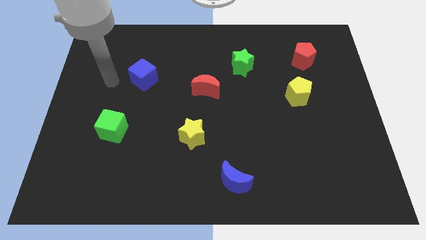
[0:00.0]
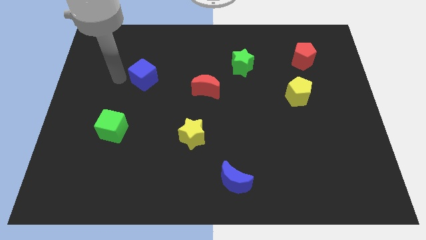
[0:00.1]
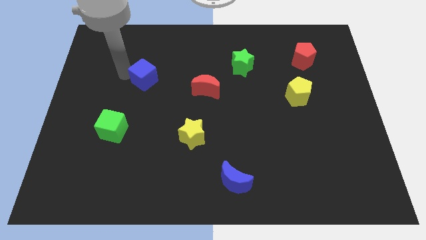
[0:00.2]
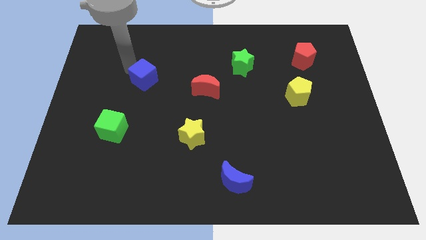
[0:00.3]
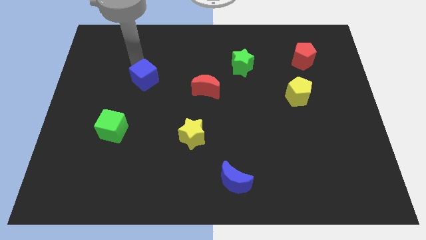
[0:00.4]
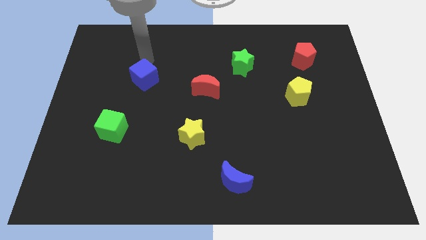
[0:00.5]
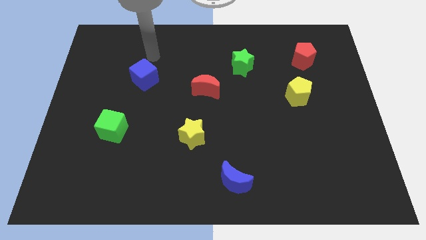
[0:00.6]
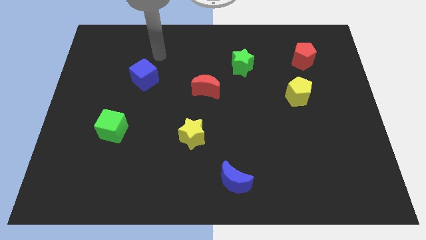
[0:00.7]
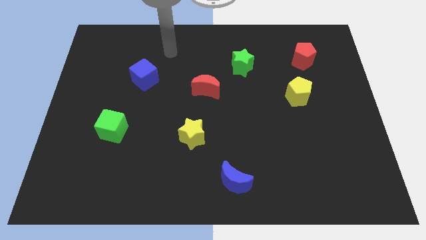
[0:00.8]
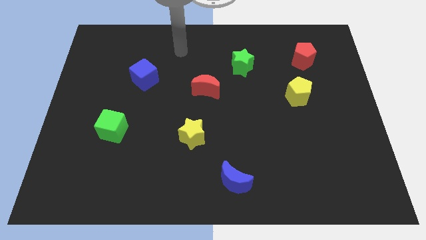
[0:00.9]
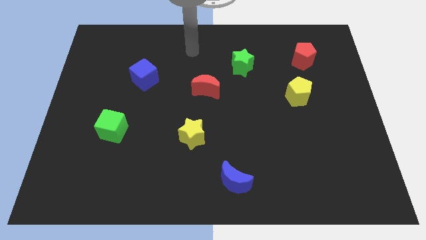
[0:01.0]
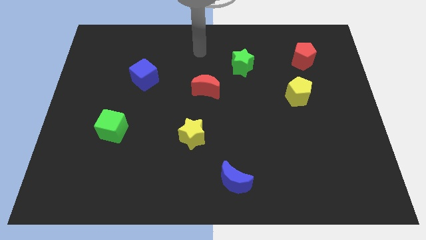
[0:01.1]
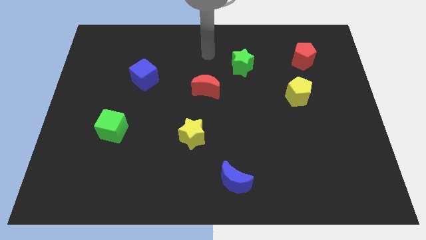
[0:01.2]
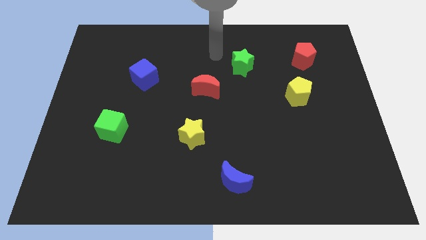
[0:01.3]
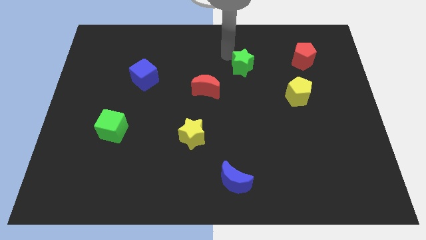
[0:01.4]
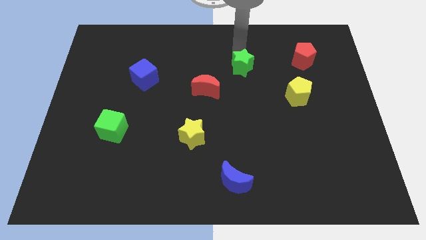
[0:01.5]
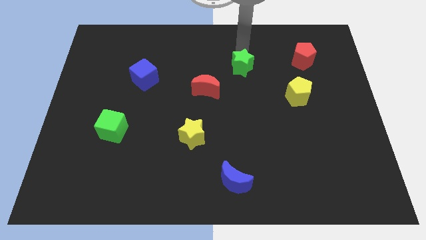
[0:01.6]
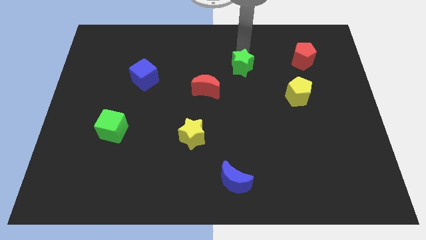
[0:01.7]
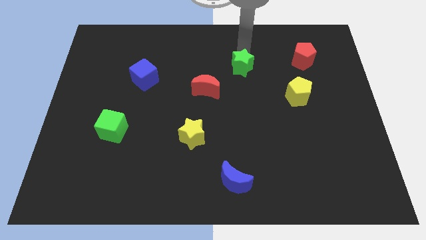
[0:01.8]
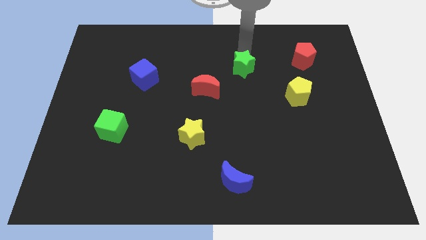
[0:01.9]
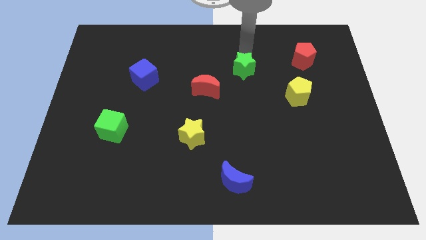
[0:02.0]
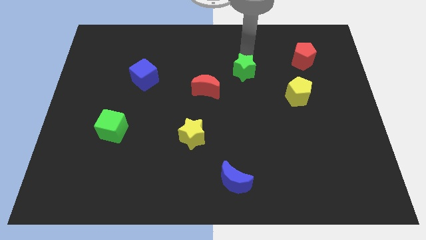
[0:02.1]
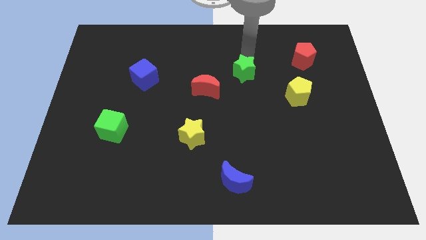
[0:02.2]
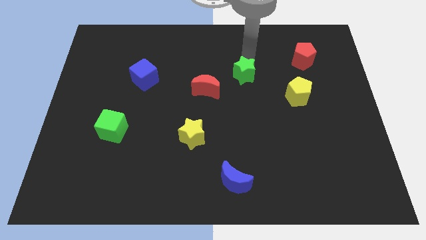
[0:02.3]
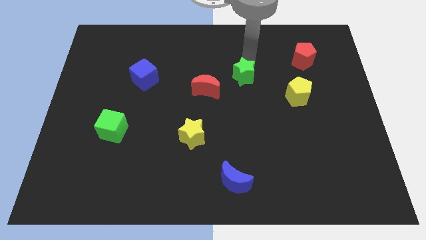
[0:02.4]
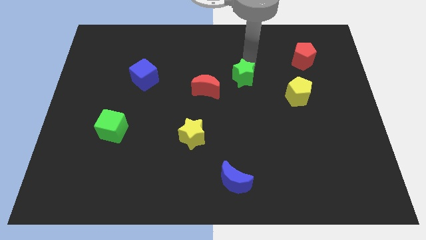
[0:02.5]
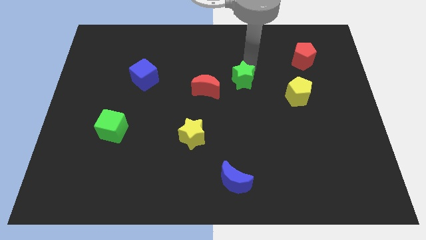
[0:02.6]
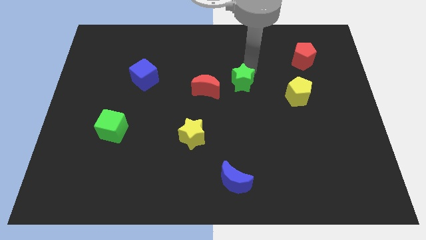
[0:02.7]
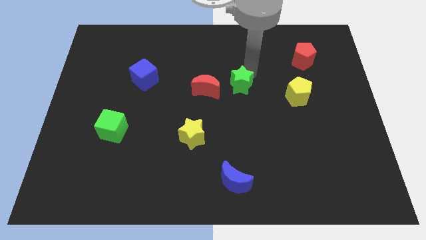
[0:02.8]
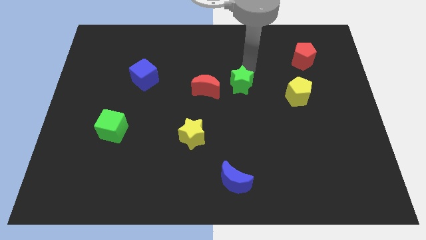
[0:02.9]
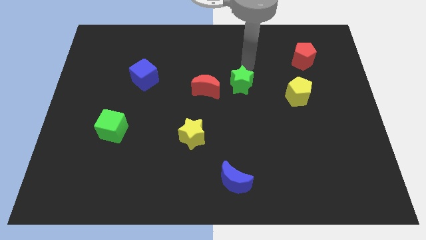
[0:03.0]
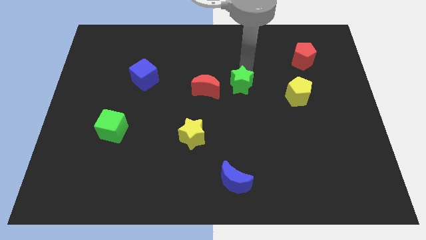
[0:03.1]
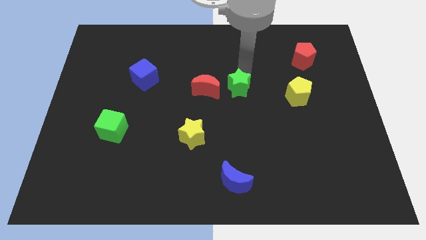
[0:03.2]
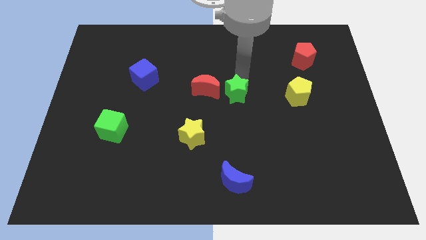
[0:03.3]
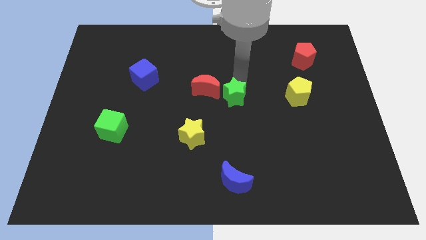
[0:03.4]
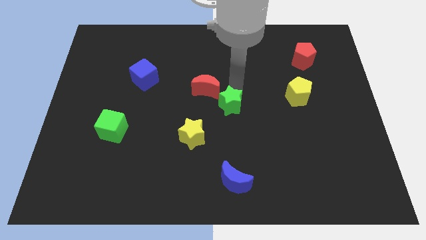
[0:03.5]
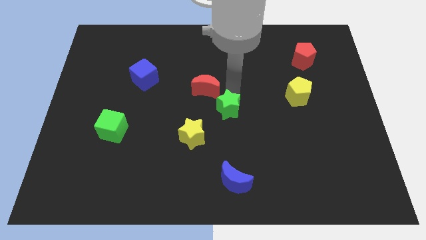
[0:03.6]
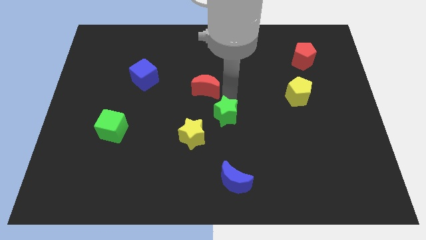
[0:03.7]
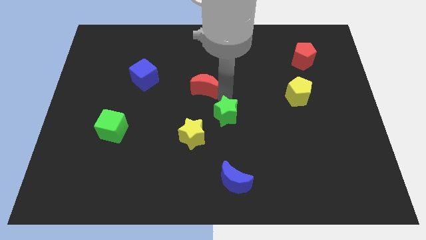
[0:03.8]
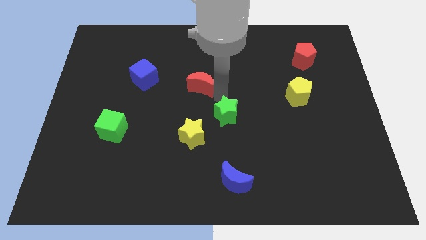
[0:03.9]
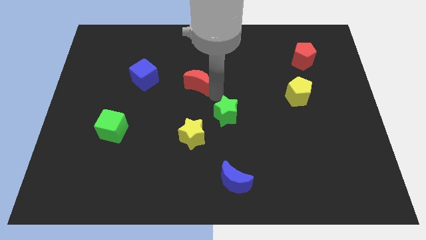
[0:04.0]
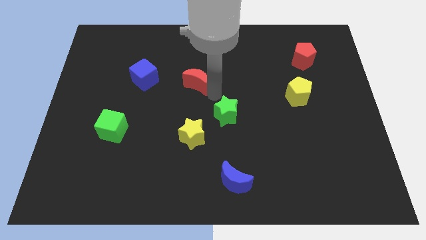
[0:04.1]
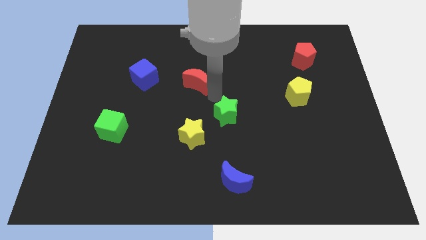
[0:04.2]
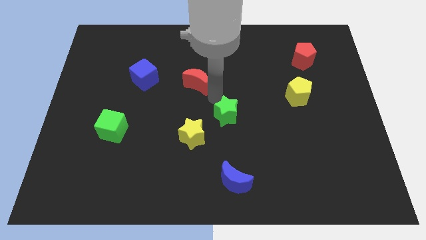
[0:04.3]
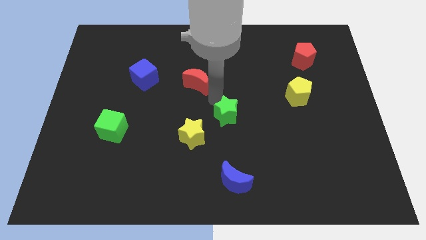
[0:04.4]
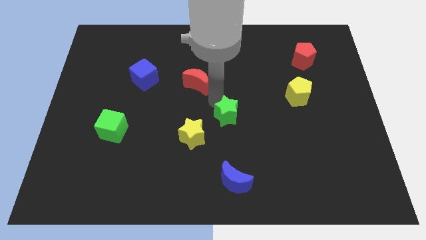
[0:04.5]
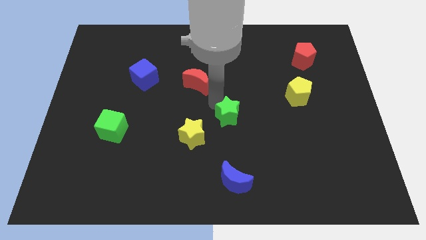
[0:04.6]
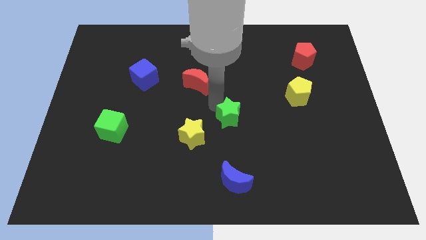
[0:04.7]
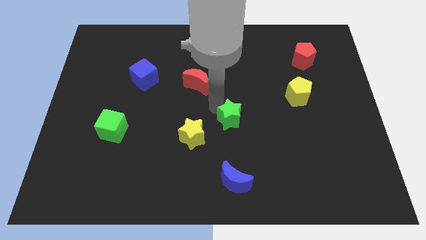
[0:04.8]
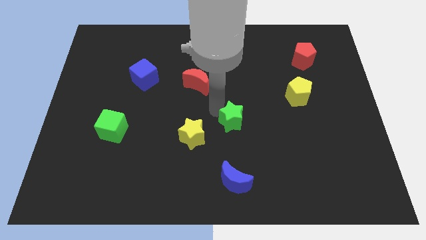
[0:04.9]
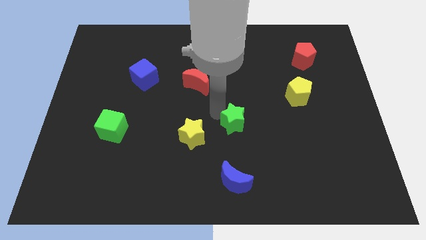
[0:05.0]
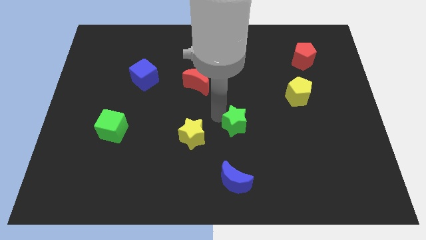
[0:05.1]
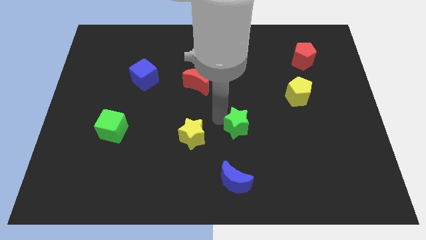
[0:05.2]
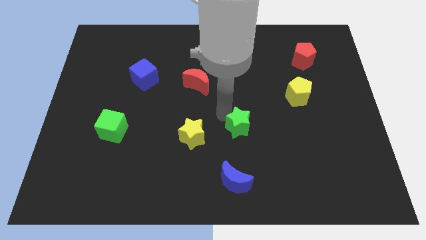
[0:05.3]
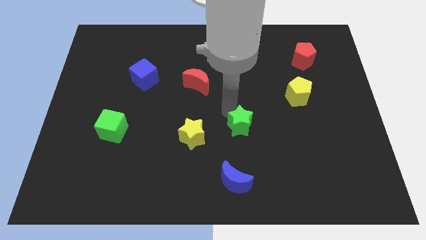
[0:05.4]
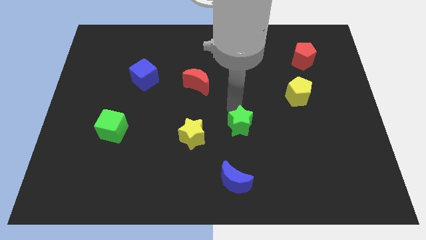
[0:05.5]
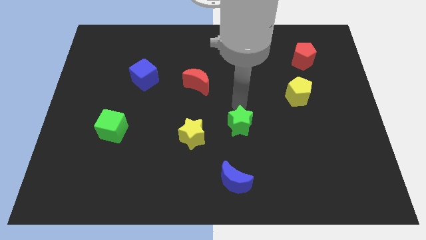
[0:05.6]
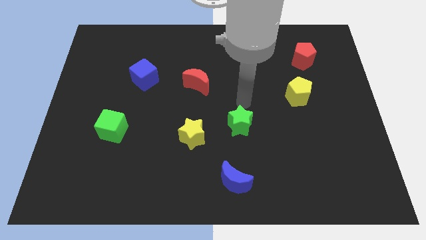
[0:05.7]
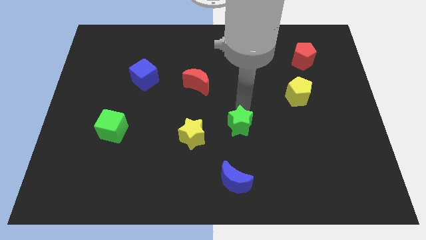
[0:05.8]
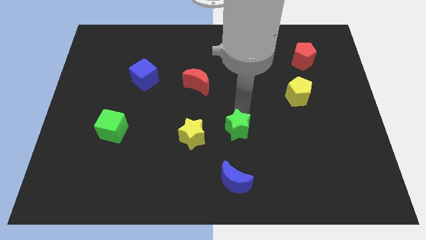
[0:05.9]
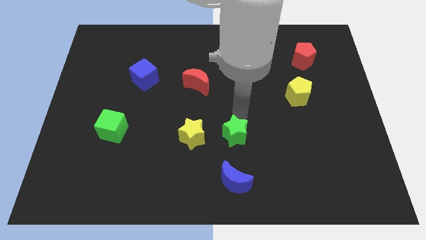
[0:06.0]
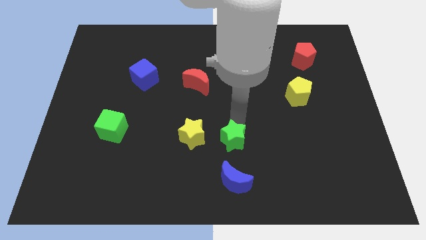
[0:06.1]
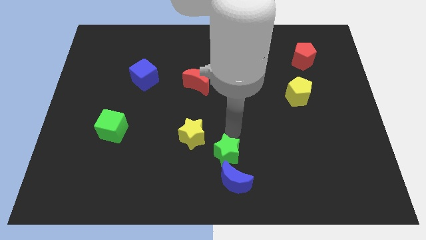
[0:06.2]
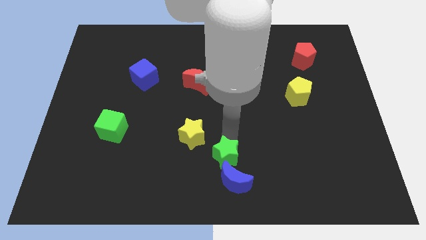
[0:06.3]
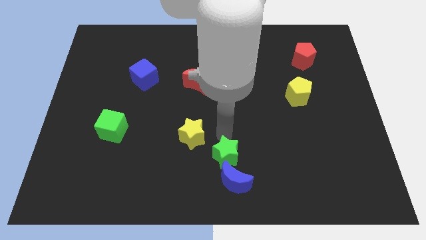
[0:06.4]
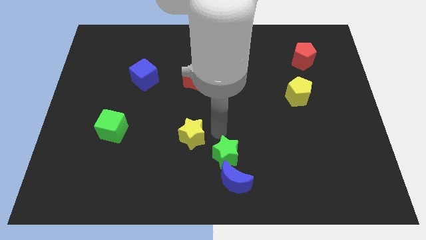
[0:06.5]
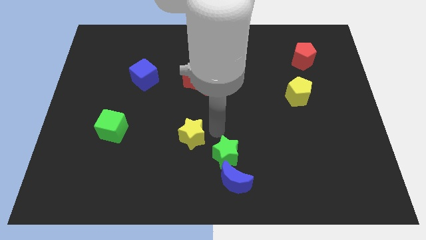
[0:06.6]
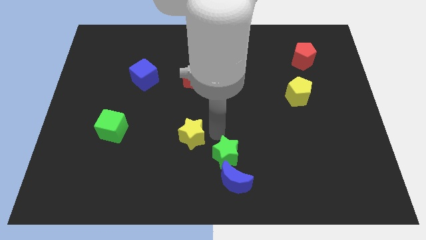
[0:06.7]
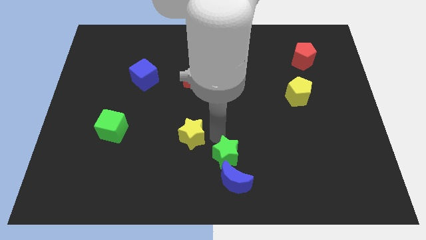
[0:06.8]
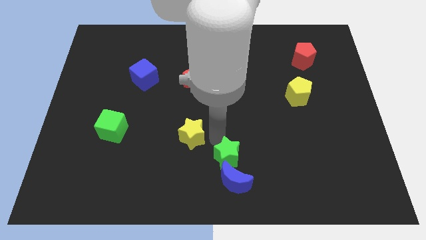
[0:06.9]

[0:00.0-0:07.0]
push the green star close to the blue moon
